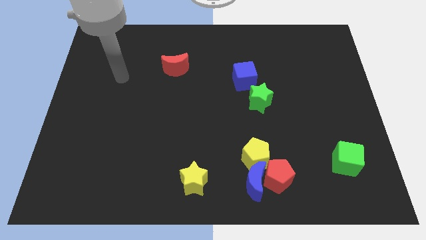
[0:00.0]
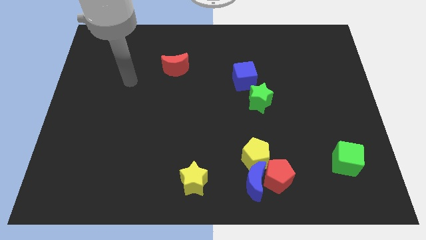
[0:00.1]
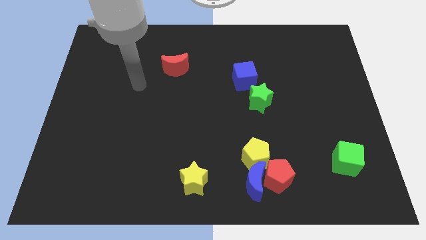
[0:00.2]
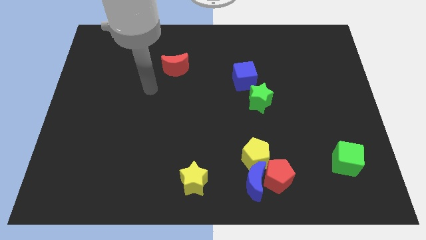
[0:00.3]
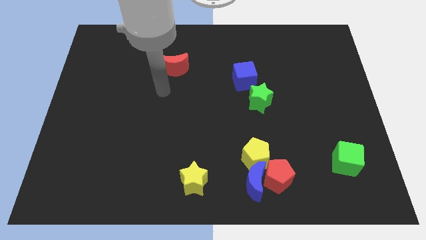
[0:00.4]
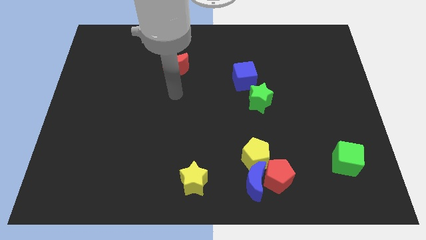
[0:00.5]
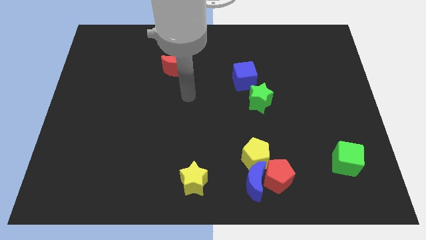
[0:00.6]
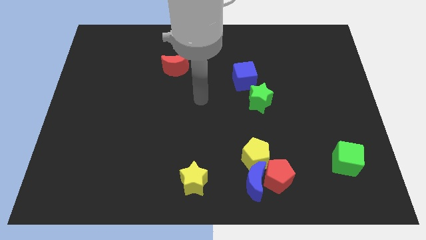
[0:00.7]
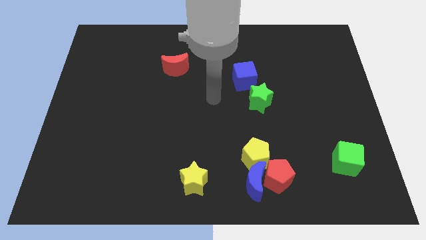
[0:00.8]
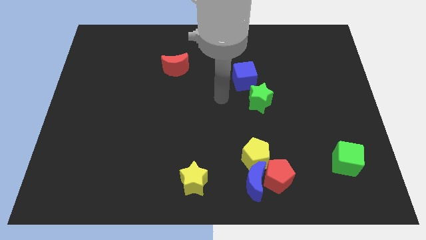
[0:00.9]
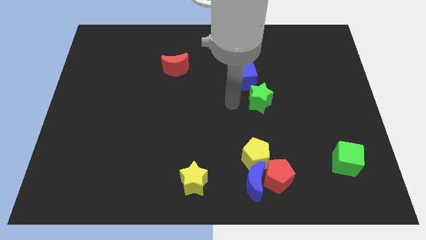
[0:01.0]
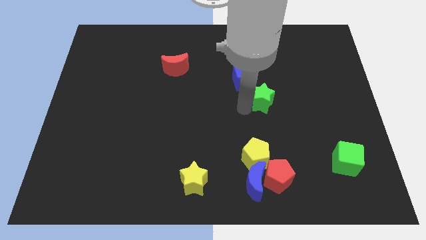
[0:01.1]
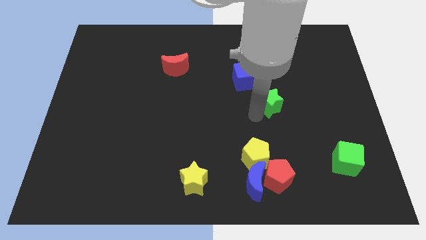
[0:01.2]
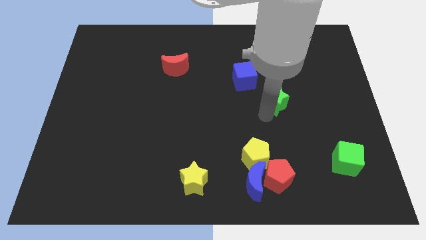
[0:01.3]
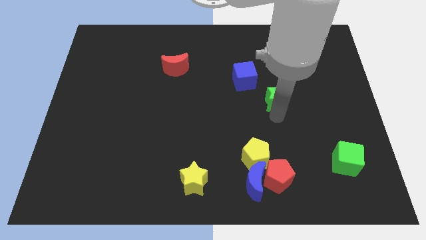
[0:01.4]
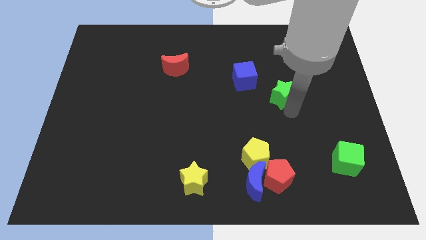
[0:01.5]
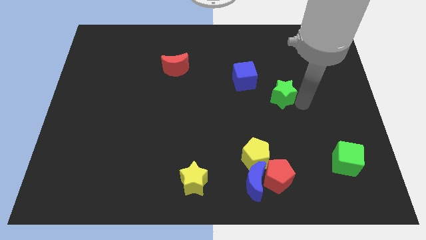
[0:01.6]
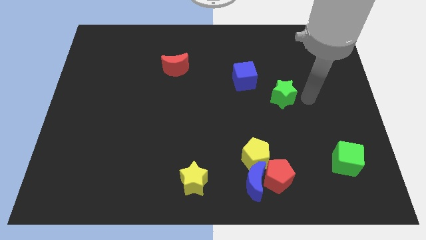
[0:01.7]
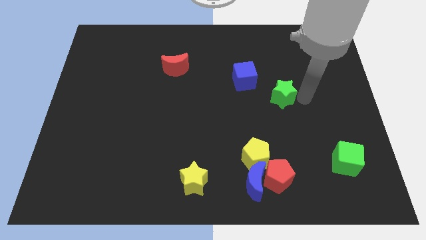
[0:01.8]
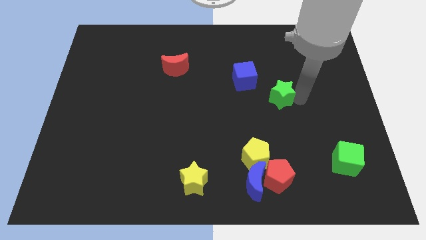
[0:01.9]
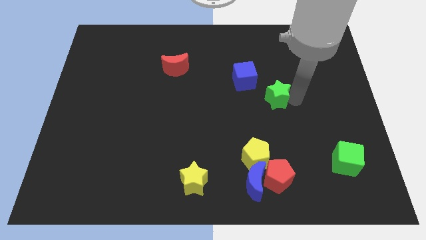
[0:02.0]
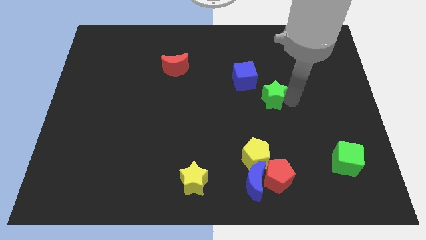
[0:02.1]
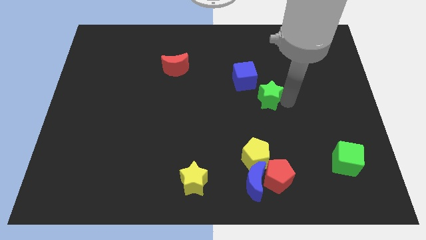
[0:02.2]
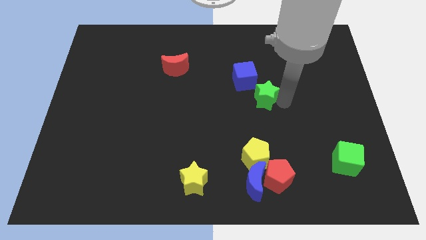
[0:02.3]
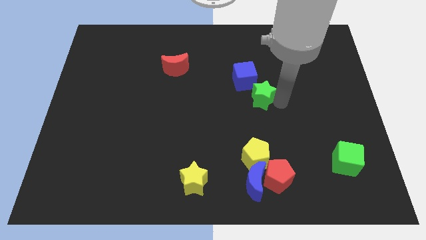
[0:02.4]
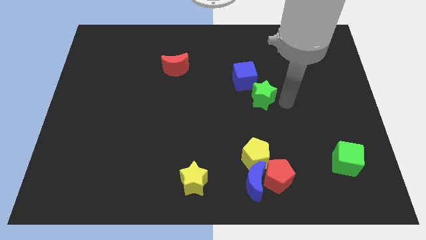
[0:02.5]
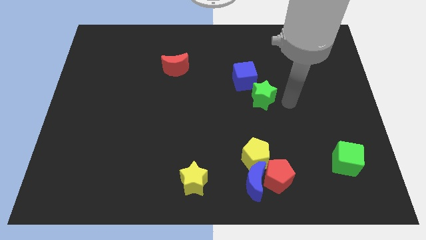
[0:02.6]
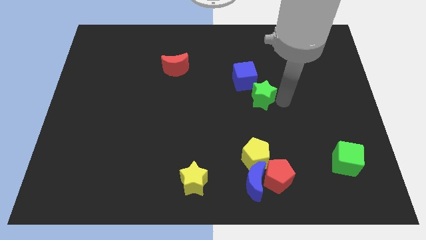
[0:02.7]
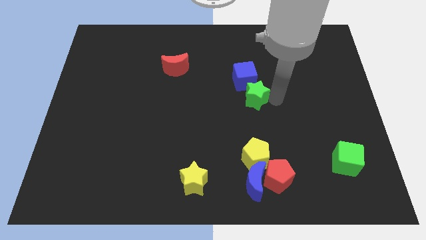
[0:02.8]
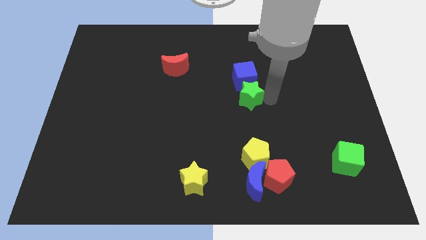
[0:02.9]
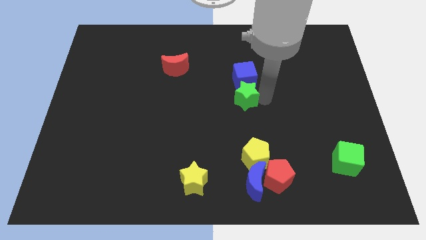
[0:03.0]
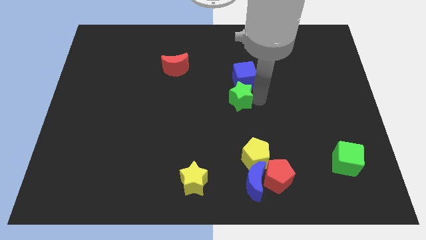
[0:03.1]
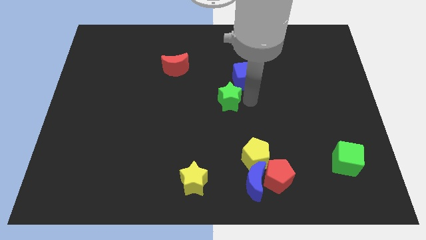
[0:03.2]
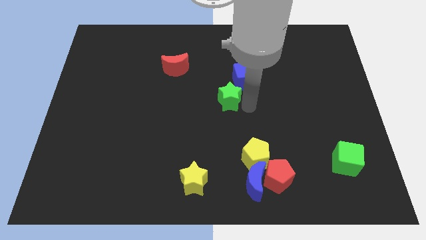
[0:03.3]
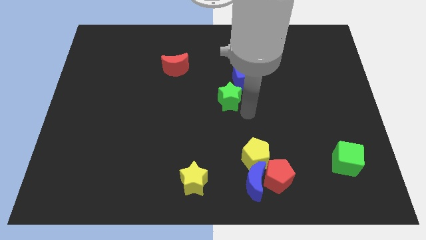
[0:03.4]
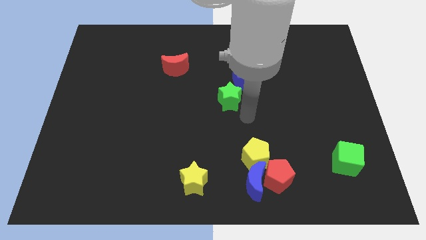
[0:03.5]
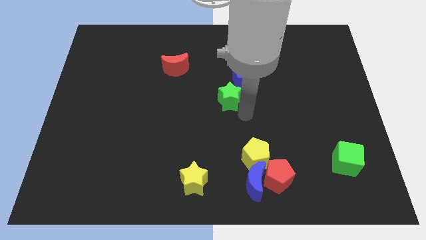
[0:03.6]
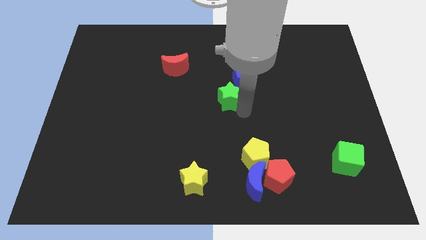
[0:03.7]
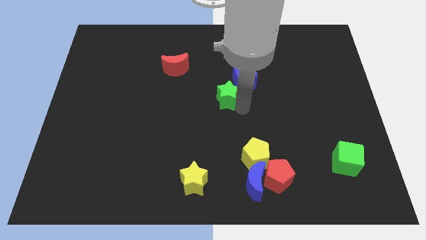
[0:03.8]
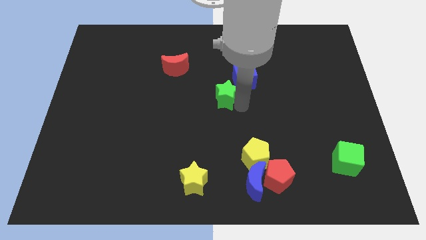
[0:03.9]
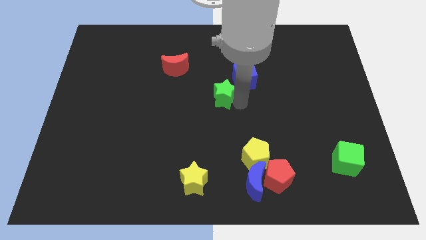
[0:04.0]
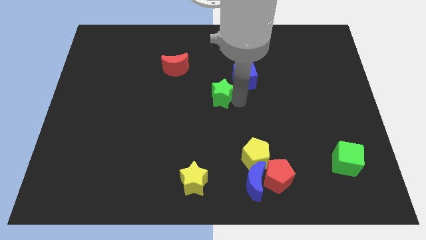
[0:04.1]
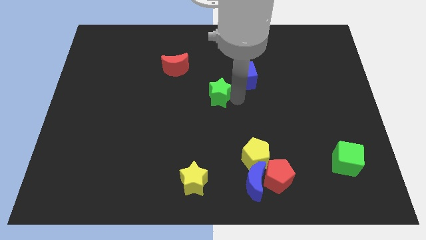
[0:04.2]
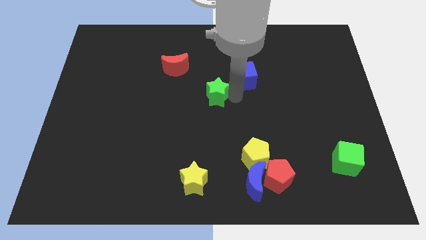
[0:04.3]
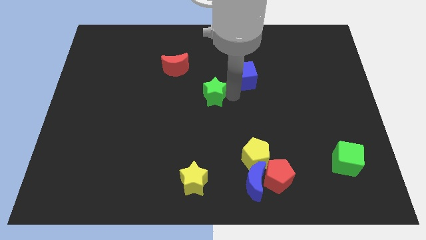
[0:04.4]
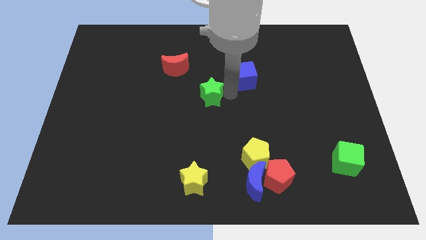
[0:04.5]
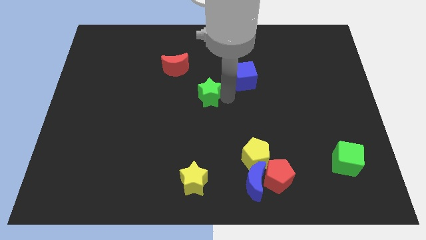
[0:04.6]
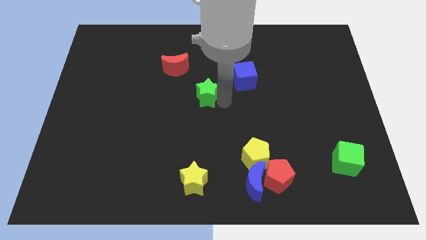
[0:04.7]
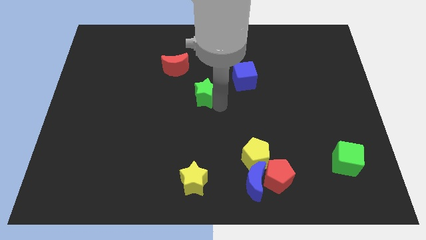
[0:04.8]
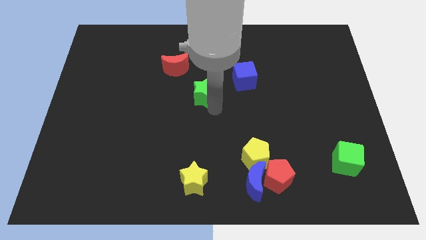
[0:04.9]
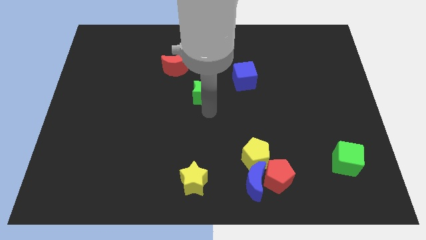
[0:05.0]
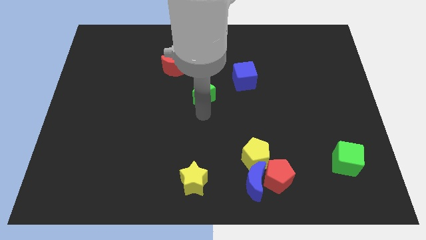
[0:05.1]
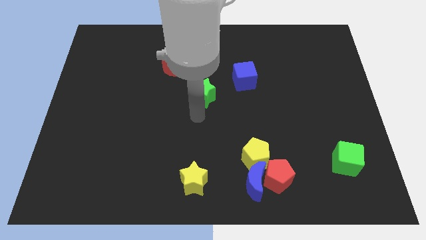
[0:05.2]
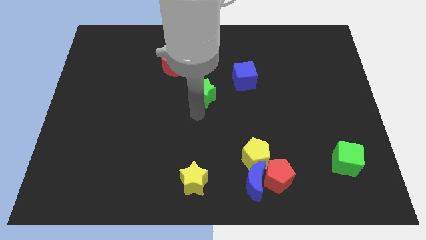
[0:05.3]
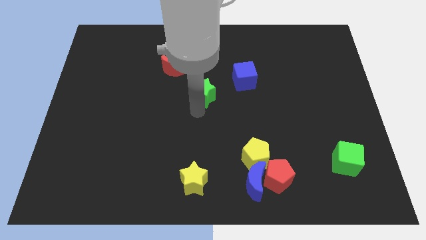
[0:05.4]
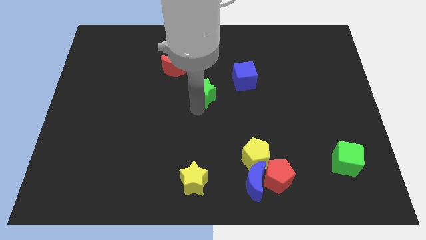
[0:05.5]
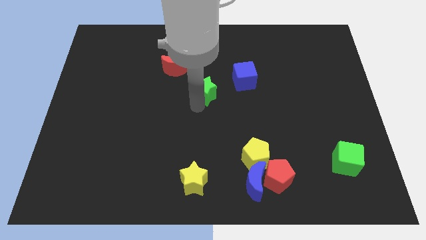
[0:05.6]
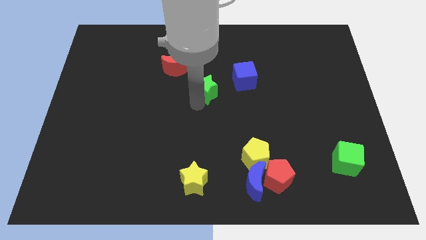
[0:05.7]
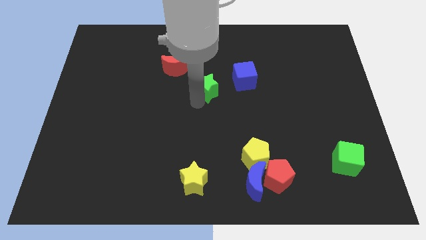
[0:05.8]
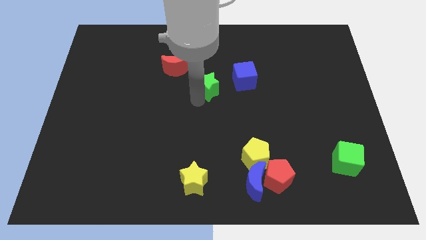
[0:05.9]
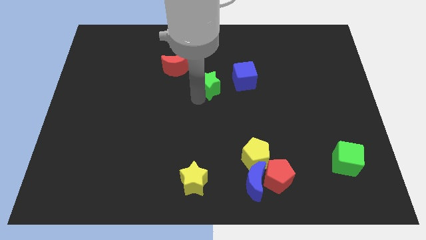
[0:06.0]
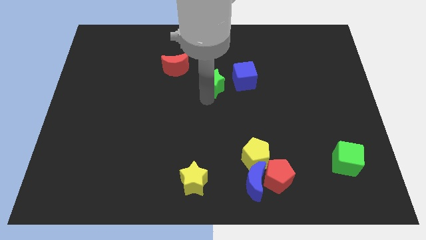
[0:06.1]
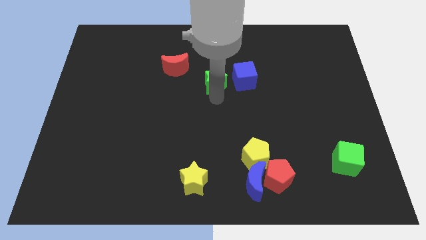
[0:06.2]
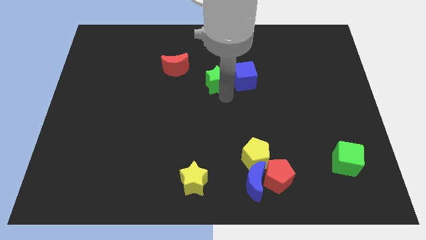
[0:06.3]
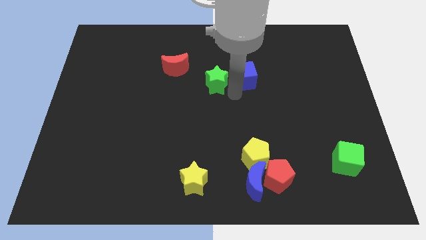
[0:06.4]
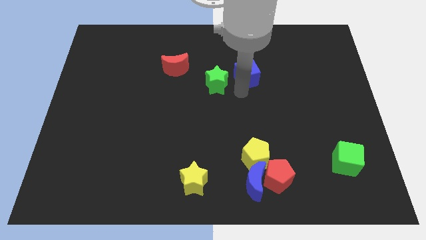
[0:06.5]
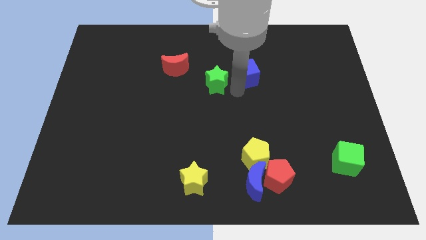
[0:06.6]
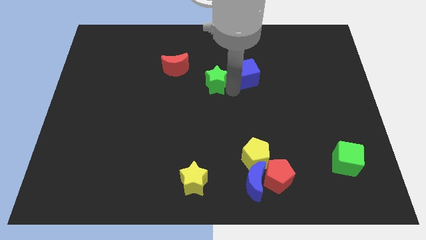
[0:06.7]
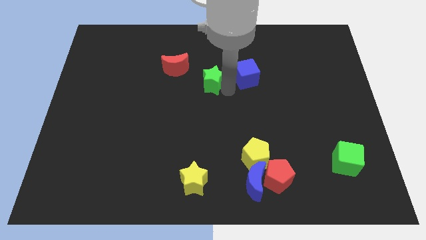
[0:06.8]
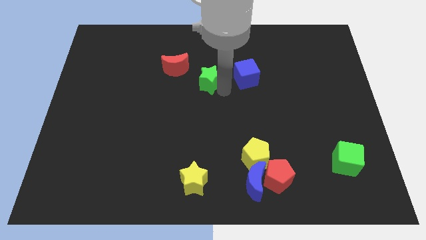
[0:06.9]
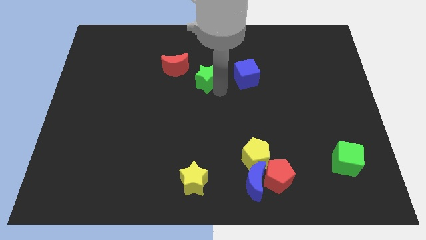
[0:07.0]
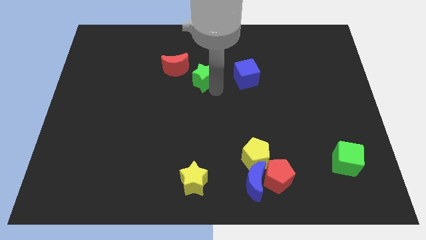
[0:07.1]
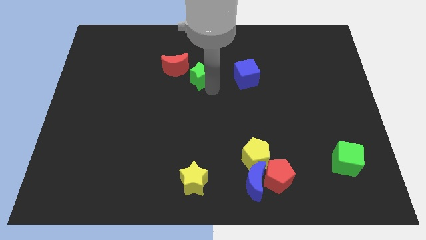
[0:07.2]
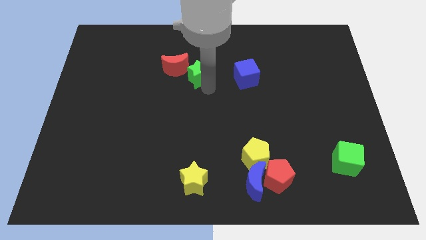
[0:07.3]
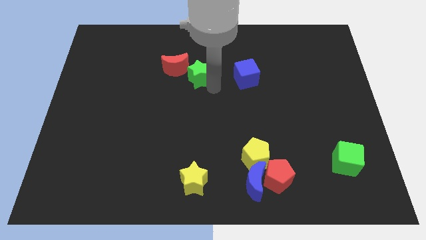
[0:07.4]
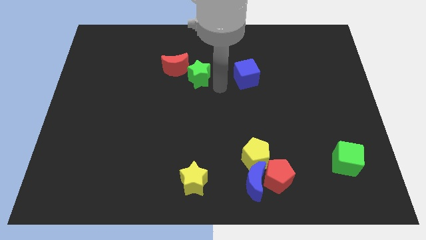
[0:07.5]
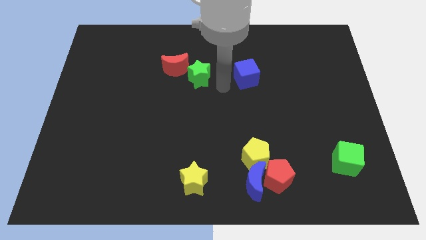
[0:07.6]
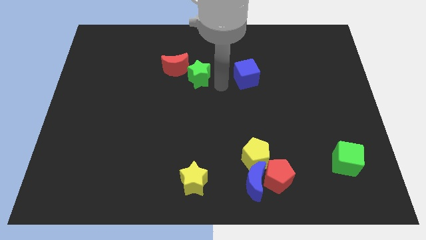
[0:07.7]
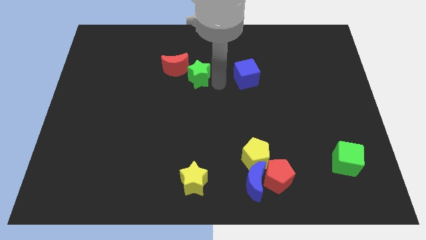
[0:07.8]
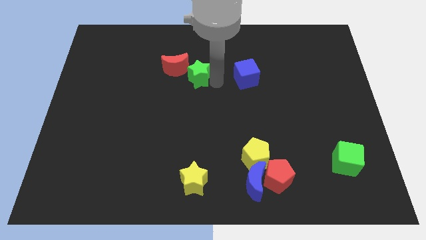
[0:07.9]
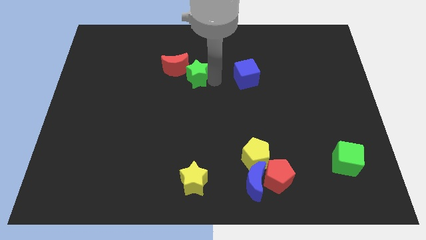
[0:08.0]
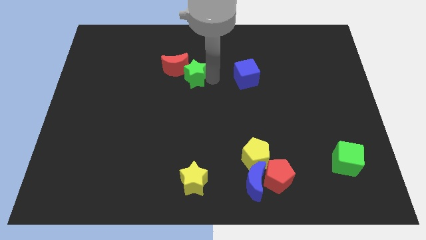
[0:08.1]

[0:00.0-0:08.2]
put the green star next to the red moon

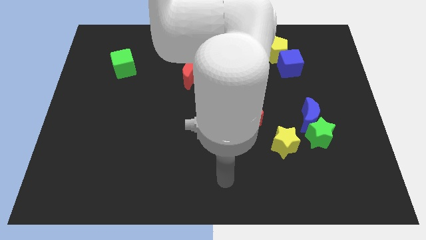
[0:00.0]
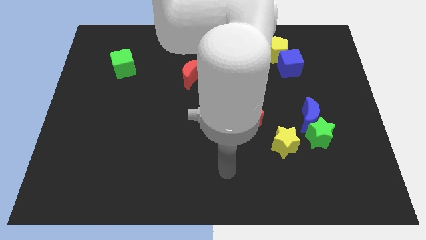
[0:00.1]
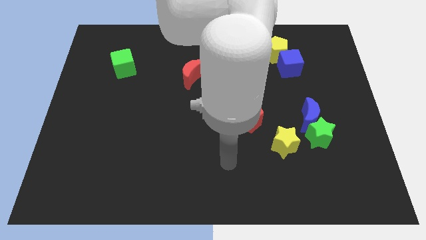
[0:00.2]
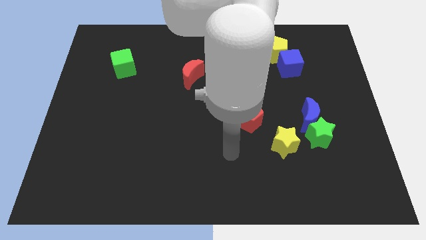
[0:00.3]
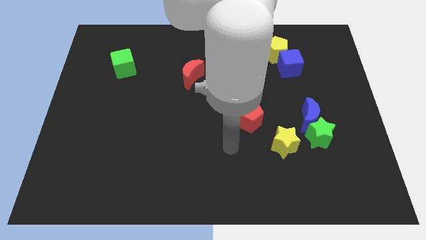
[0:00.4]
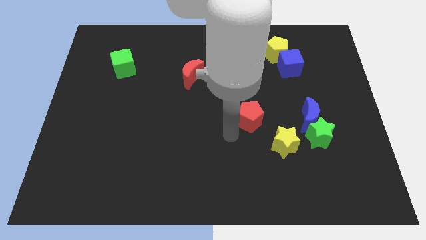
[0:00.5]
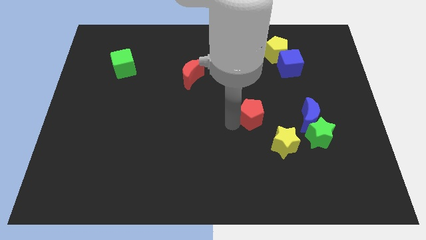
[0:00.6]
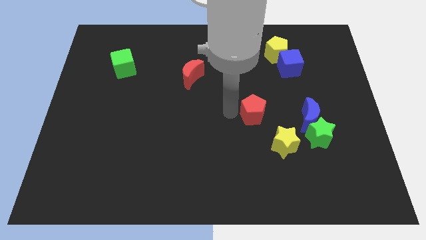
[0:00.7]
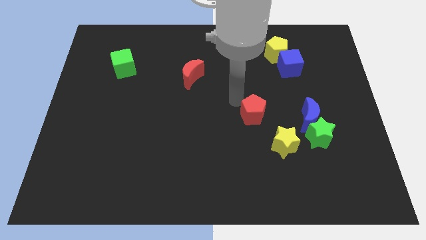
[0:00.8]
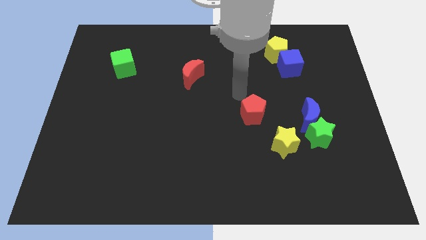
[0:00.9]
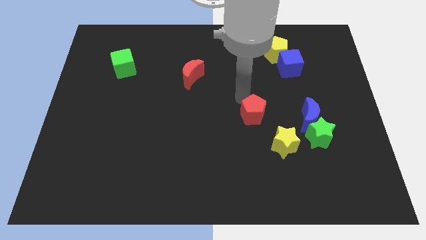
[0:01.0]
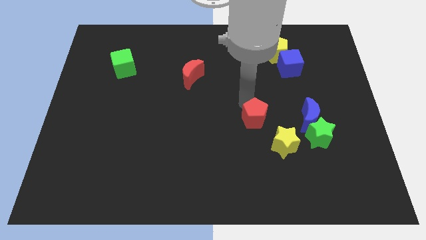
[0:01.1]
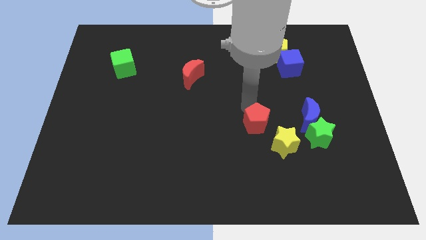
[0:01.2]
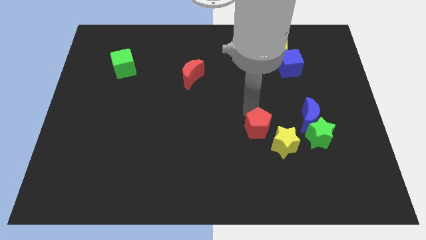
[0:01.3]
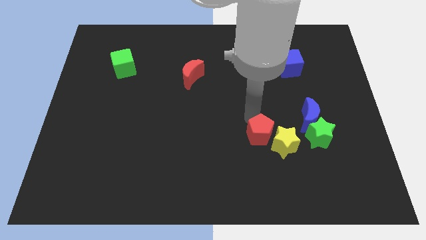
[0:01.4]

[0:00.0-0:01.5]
slide the red pentagon next to the yellow star
